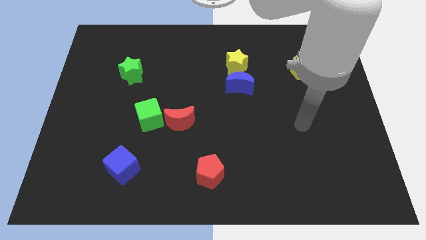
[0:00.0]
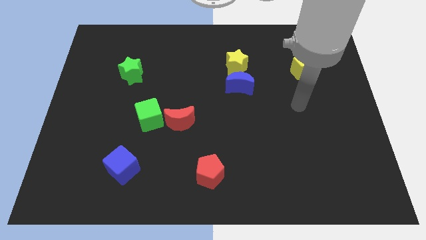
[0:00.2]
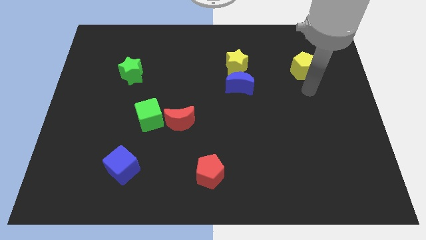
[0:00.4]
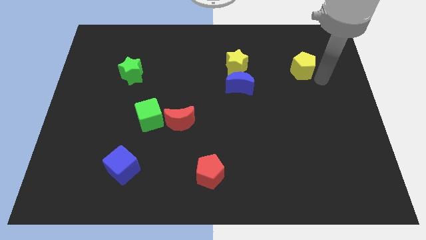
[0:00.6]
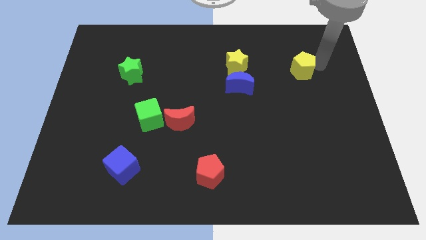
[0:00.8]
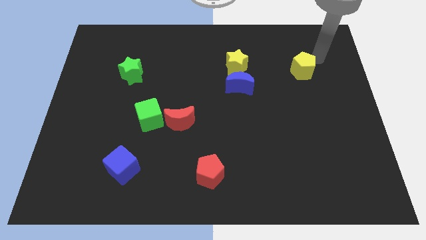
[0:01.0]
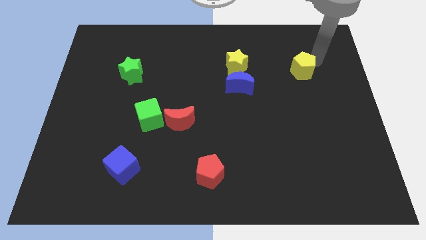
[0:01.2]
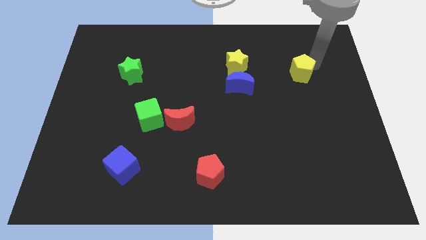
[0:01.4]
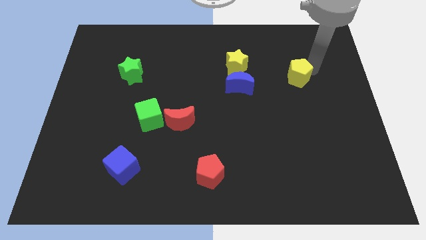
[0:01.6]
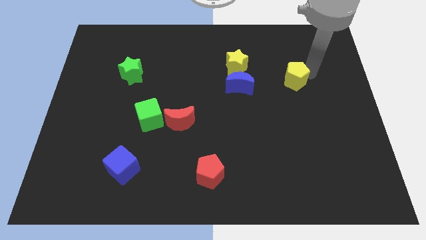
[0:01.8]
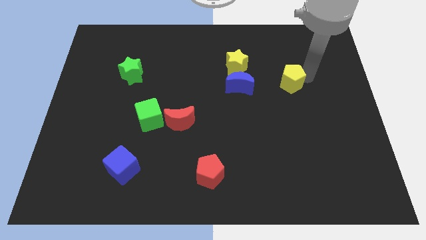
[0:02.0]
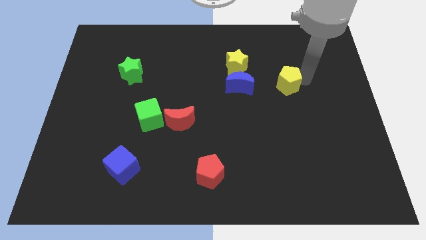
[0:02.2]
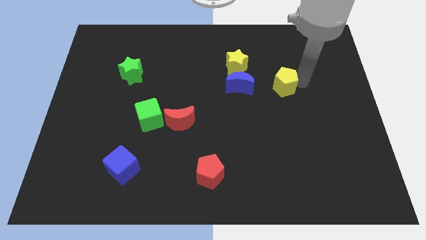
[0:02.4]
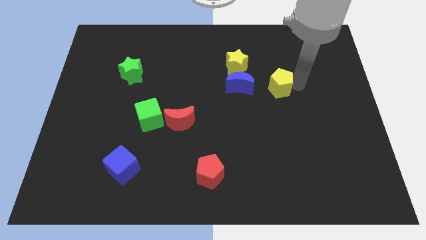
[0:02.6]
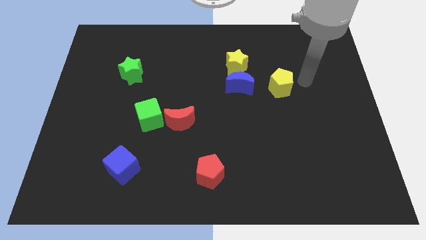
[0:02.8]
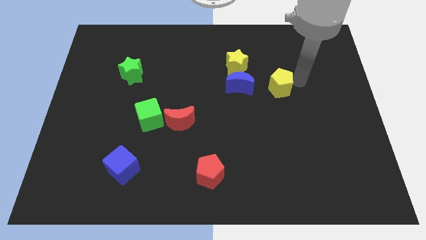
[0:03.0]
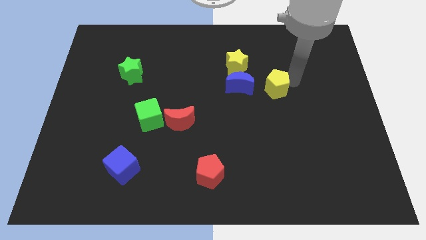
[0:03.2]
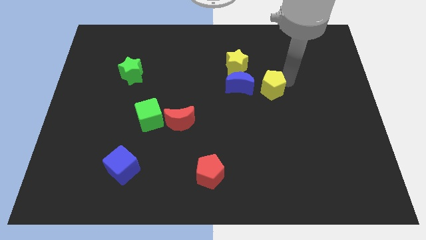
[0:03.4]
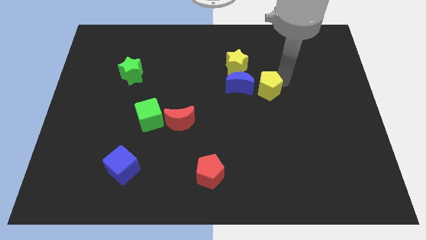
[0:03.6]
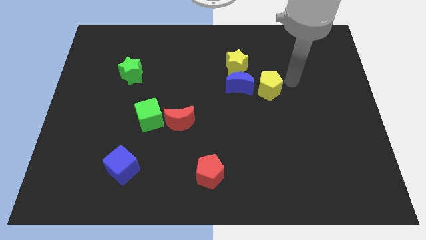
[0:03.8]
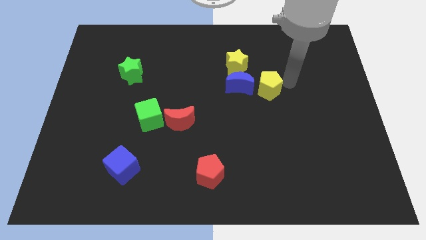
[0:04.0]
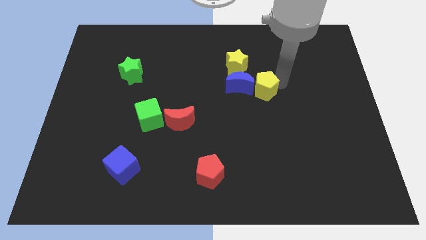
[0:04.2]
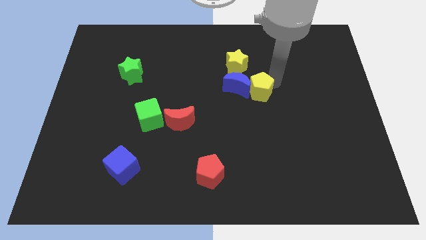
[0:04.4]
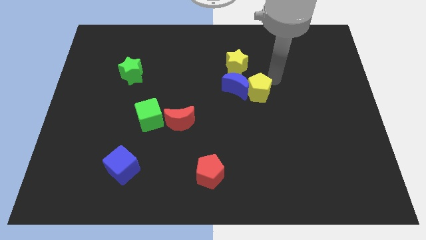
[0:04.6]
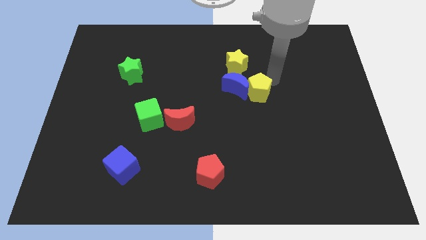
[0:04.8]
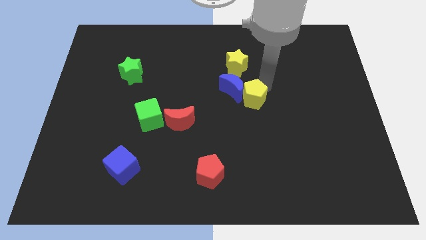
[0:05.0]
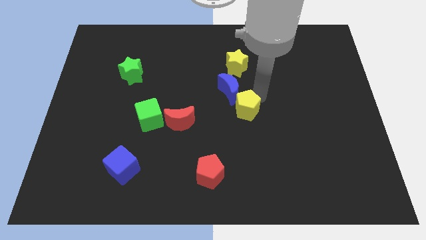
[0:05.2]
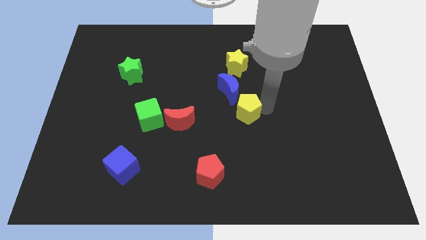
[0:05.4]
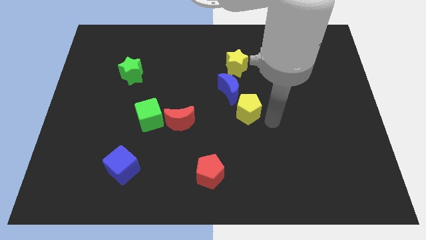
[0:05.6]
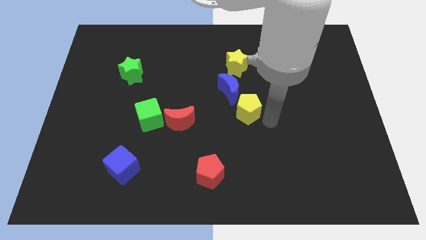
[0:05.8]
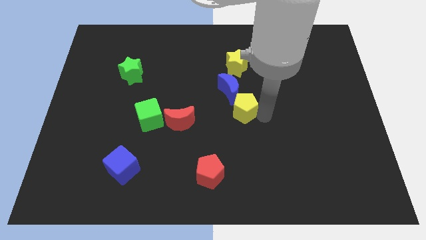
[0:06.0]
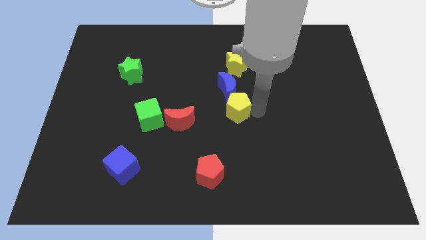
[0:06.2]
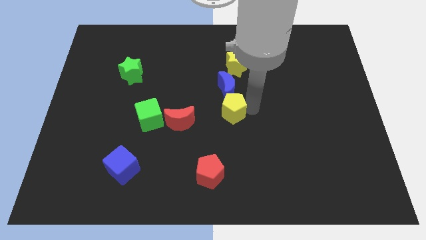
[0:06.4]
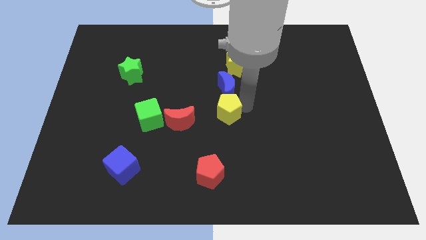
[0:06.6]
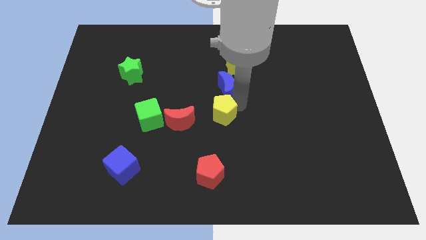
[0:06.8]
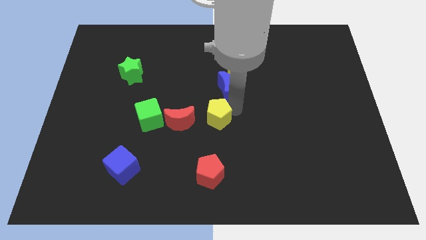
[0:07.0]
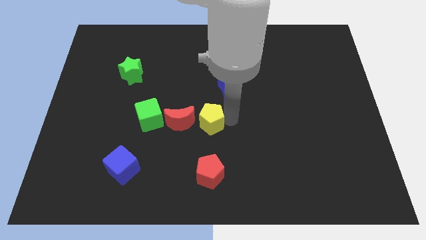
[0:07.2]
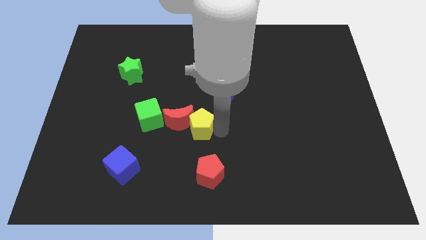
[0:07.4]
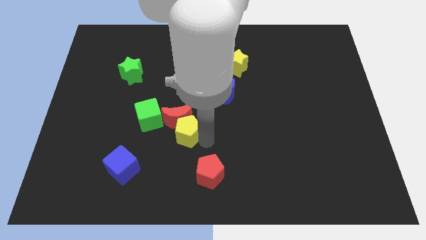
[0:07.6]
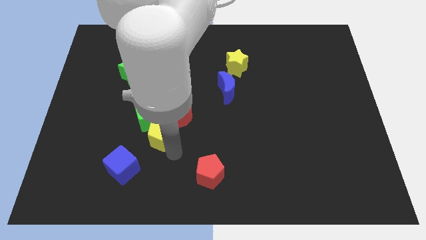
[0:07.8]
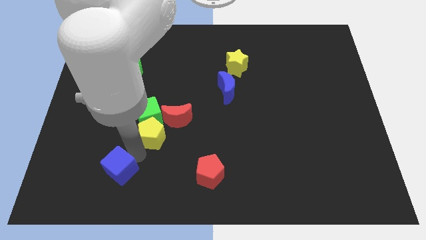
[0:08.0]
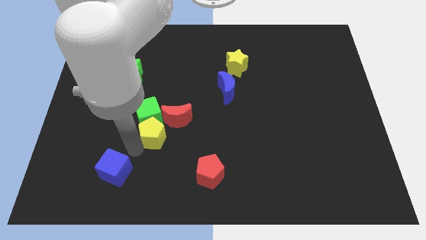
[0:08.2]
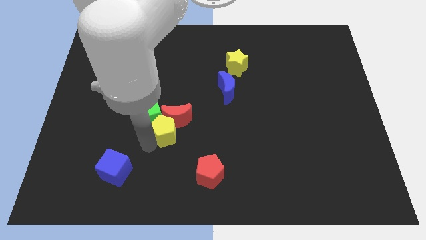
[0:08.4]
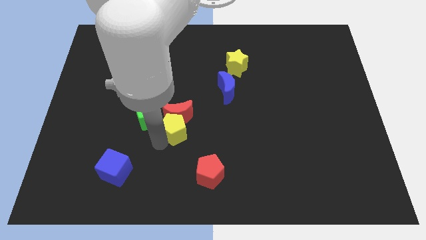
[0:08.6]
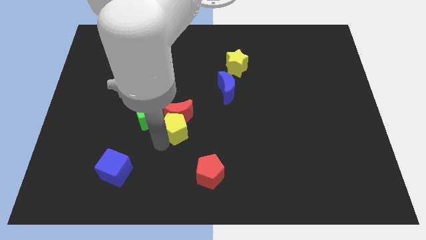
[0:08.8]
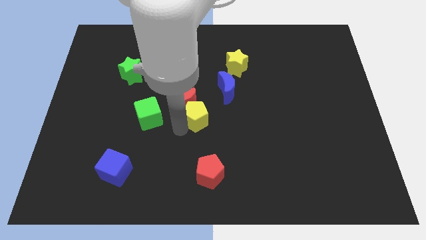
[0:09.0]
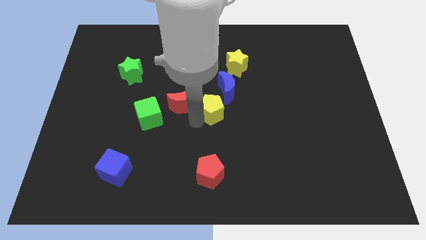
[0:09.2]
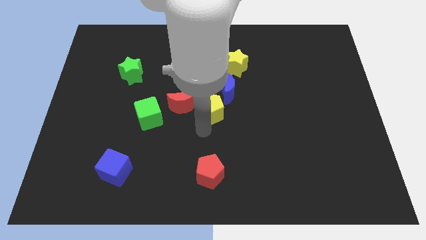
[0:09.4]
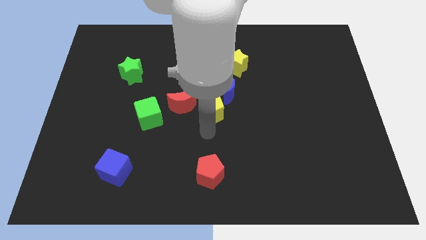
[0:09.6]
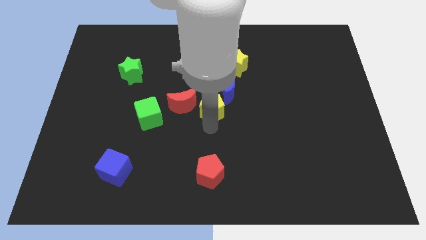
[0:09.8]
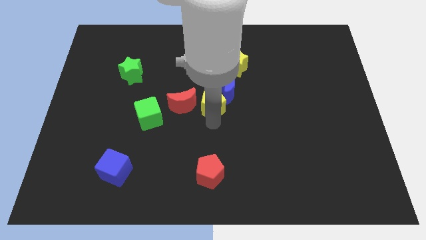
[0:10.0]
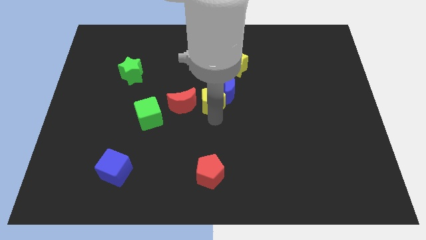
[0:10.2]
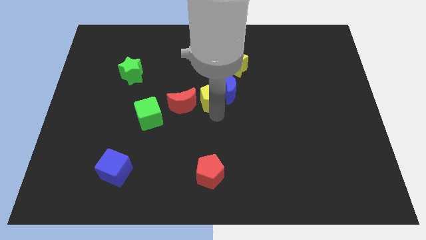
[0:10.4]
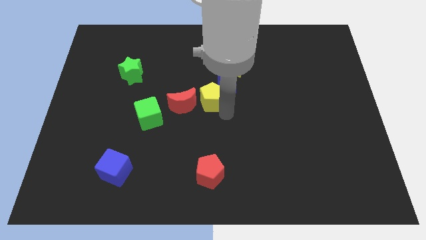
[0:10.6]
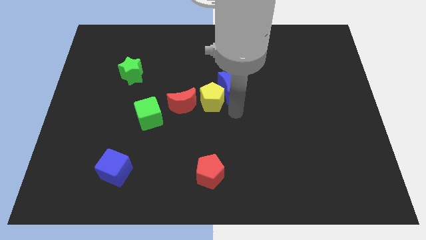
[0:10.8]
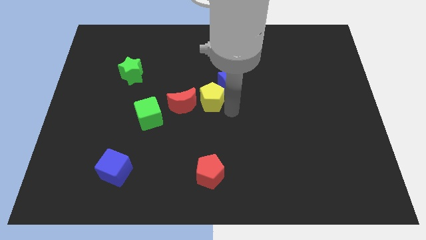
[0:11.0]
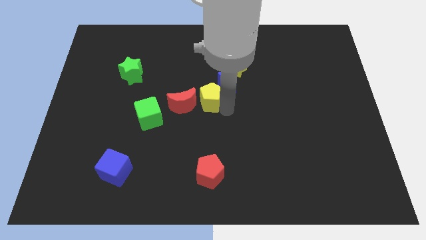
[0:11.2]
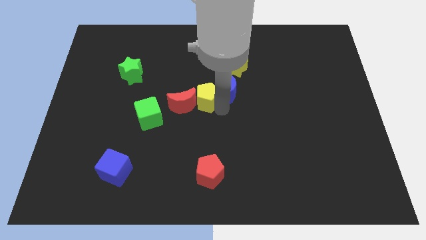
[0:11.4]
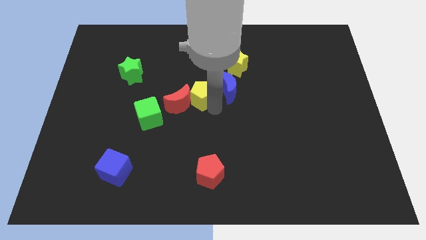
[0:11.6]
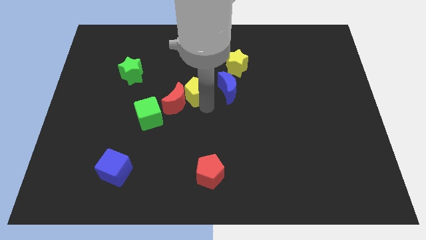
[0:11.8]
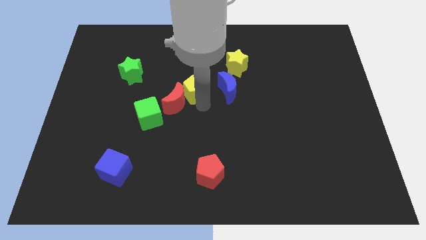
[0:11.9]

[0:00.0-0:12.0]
put the yellow pentagon to the top side of the red moon
